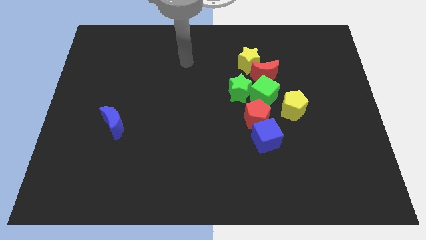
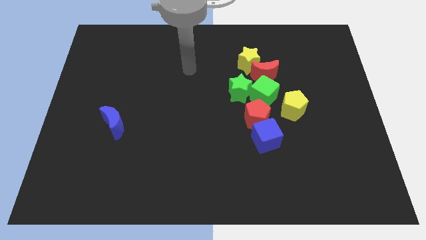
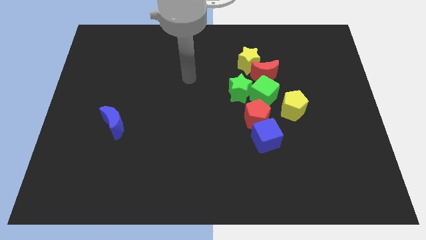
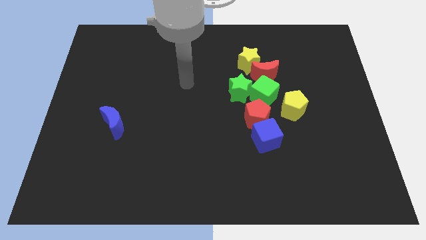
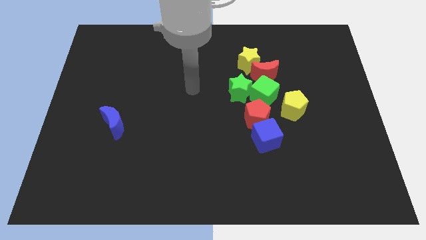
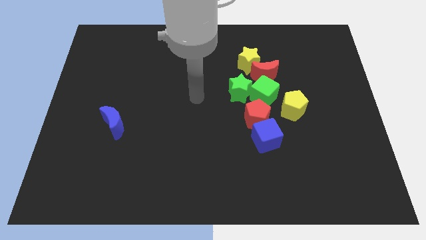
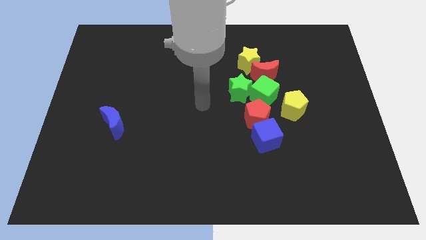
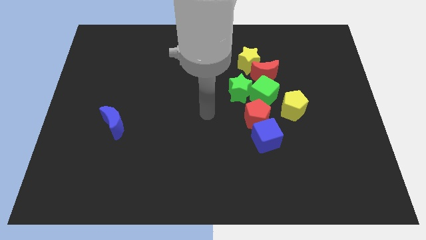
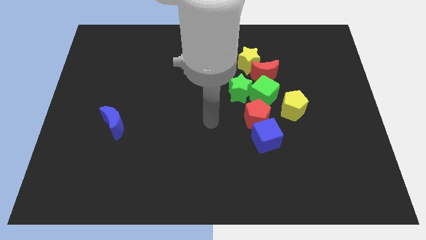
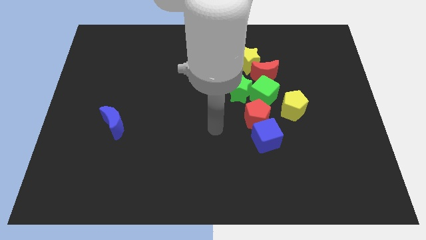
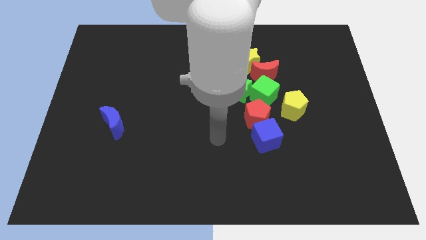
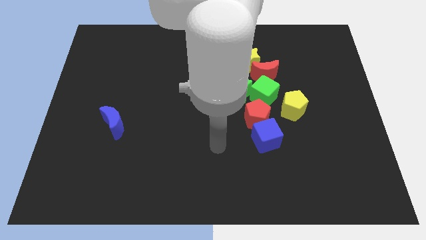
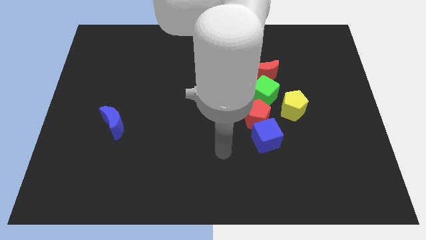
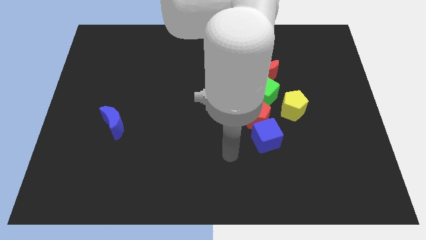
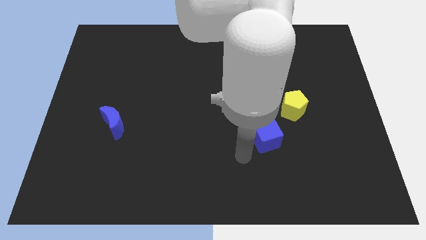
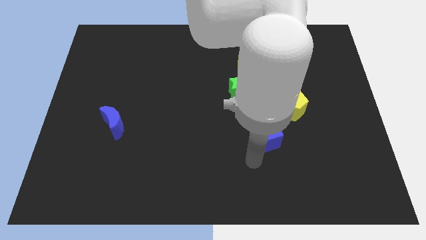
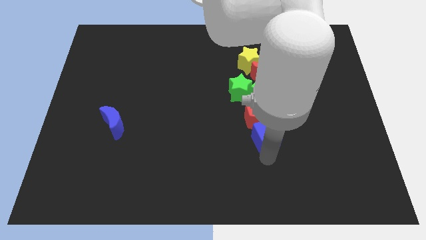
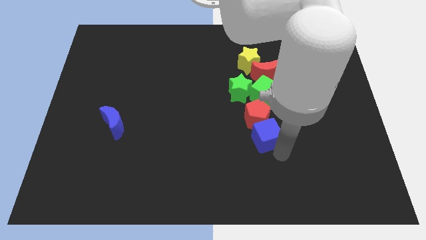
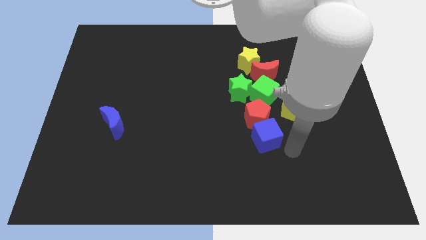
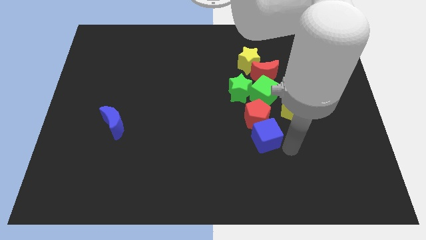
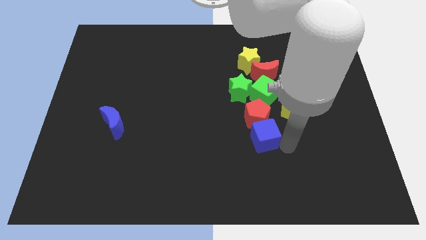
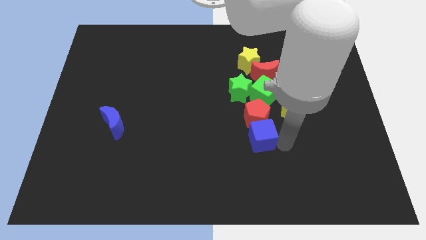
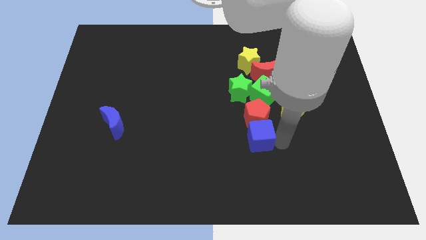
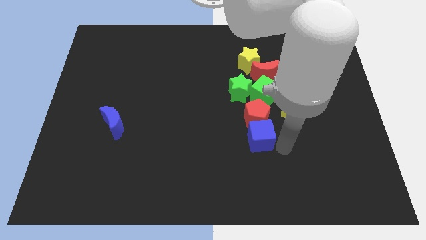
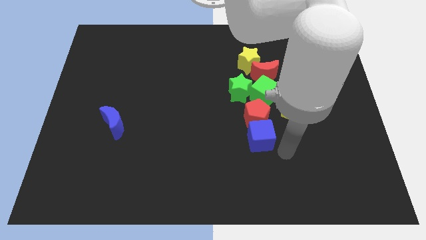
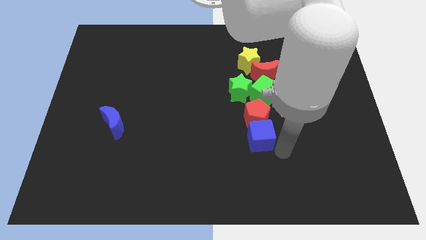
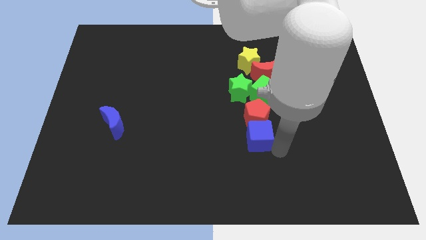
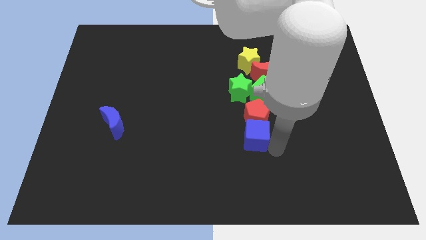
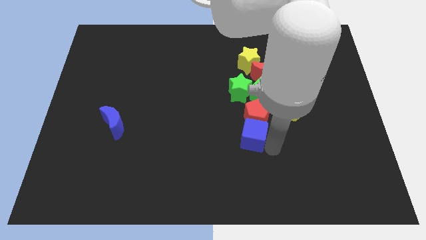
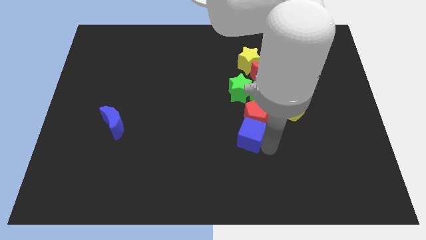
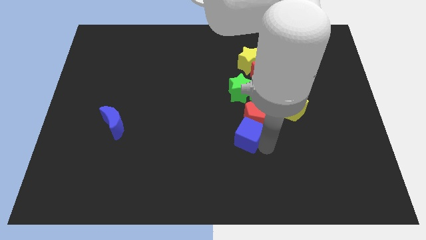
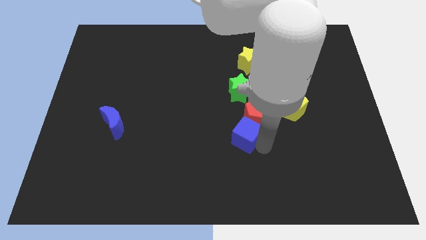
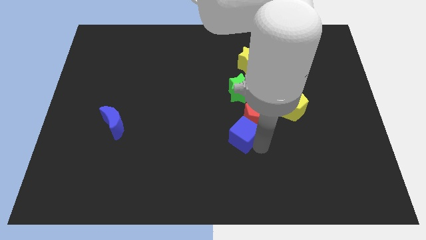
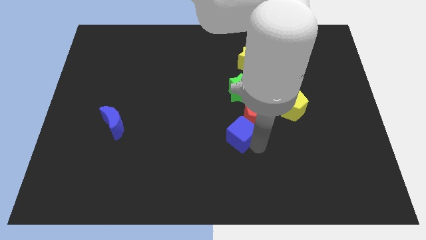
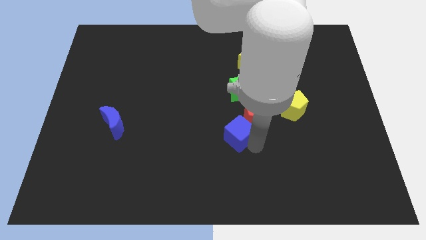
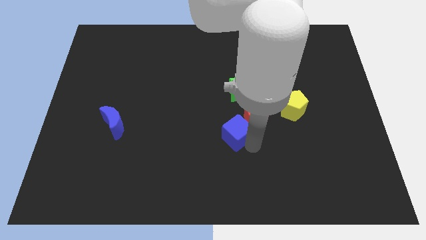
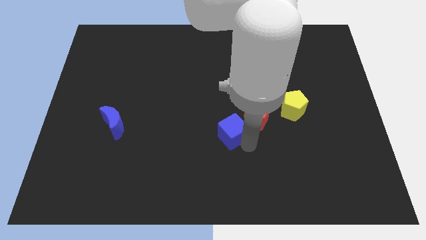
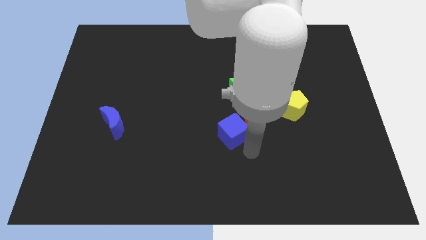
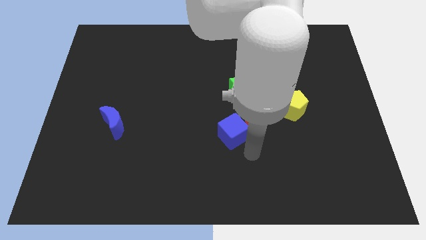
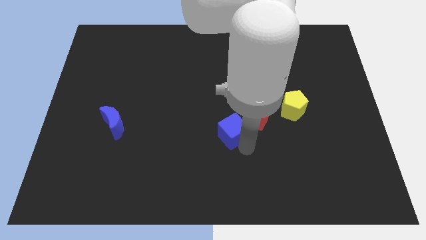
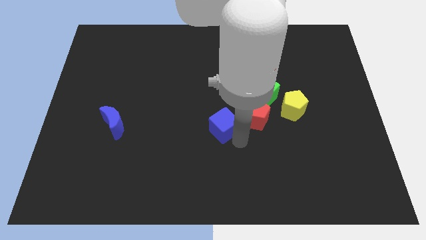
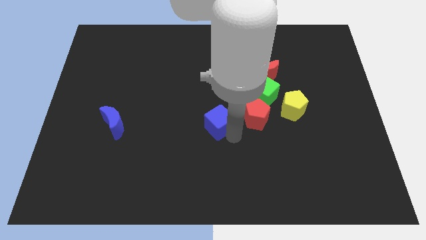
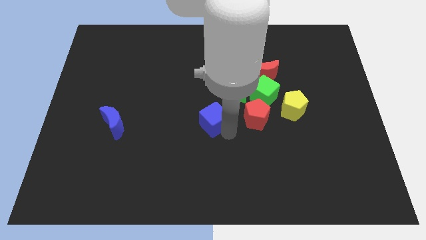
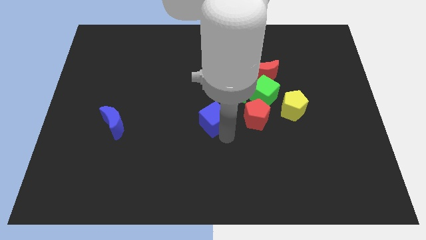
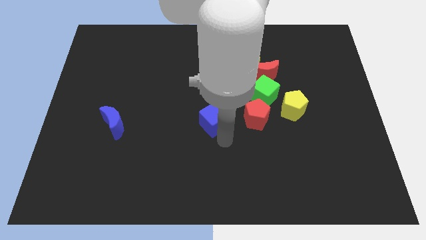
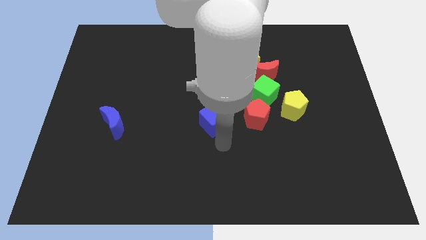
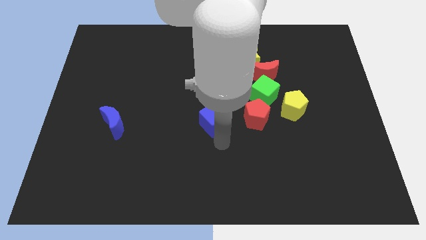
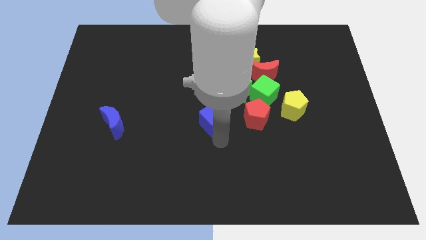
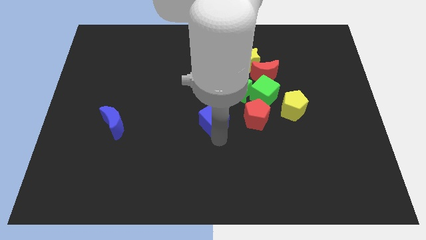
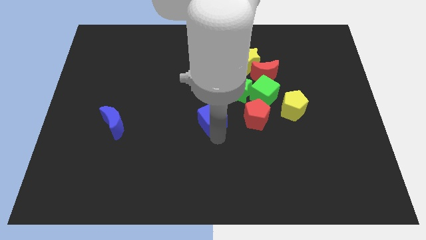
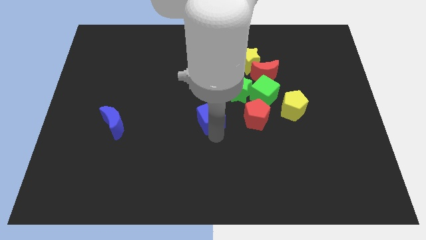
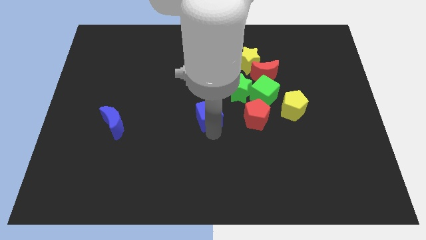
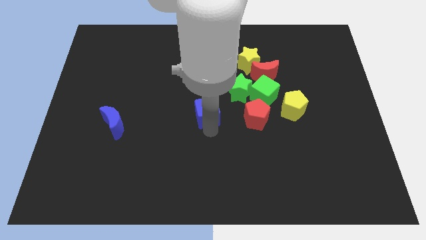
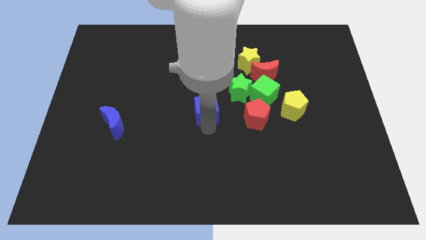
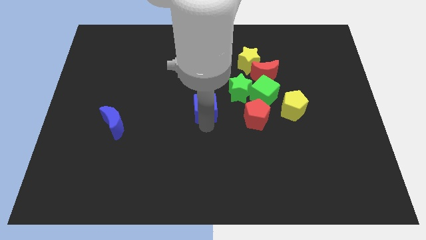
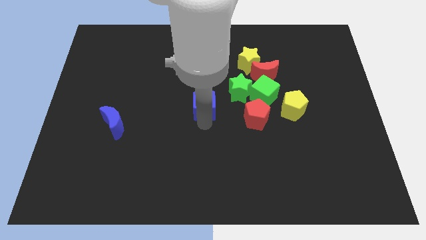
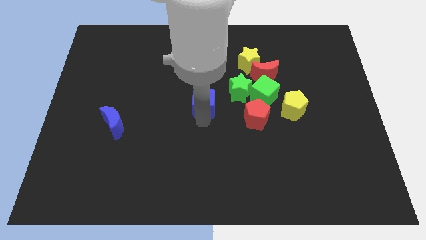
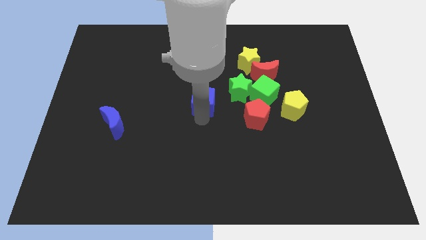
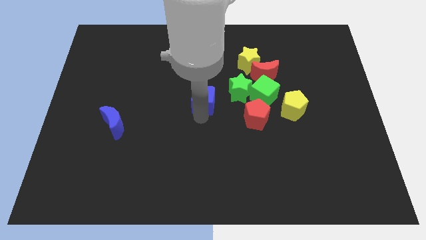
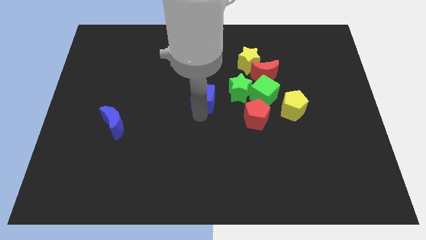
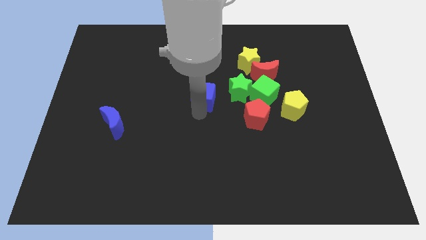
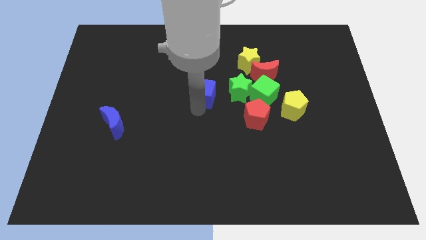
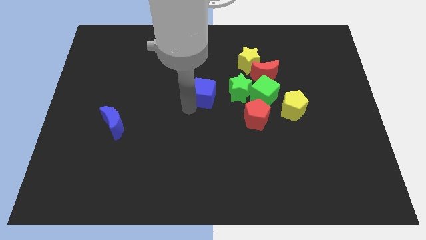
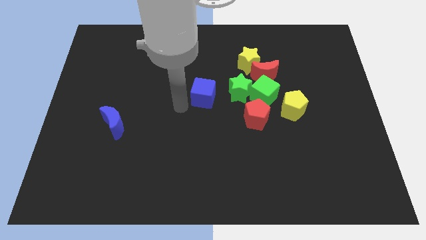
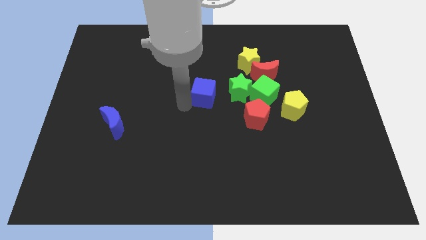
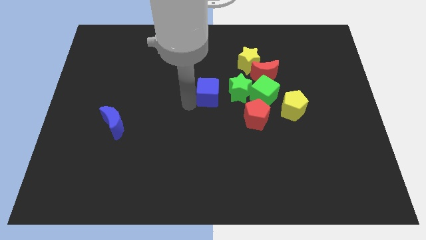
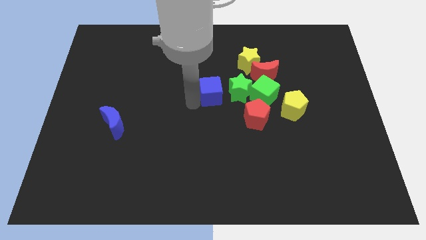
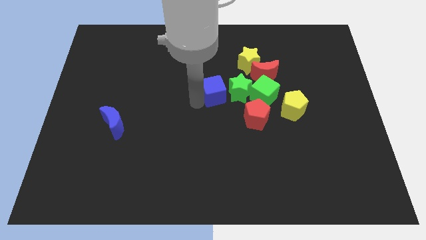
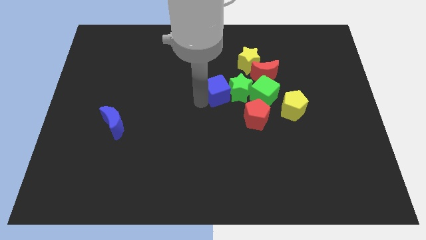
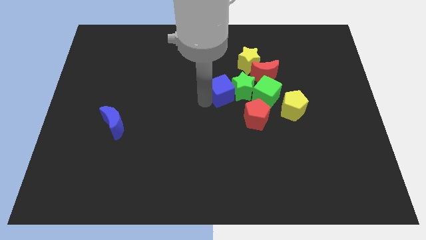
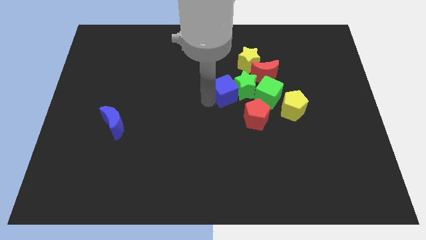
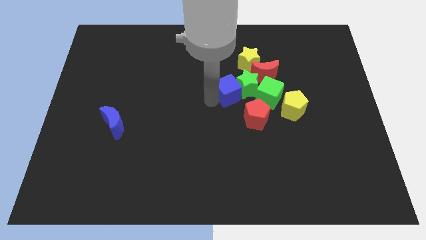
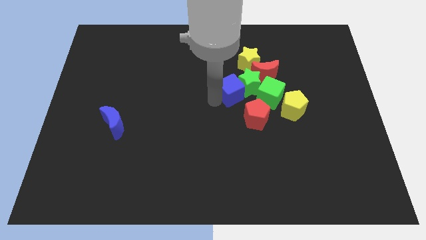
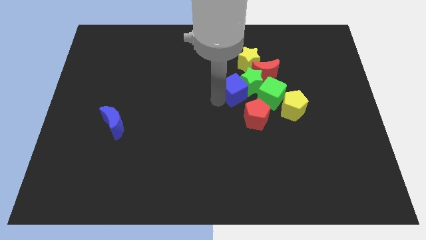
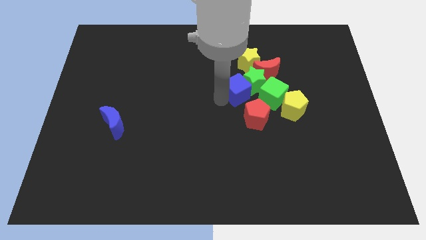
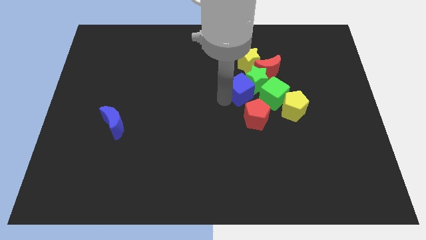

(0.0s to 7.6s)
push the blue cube to the top left of the green cube

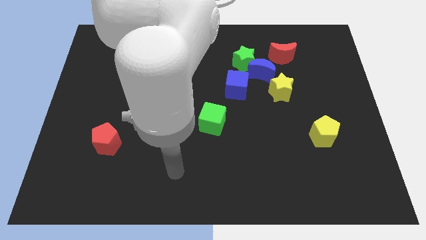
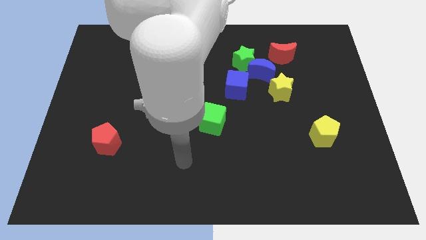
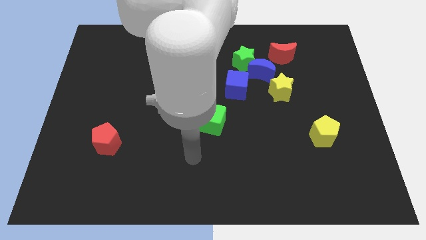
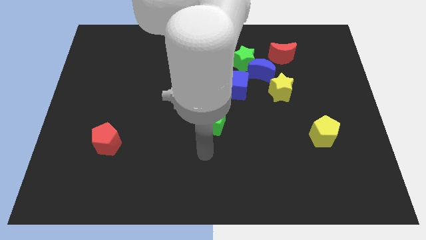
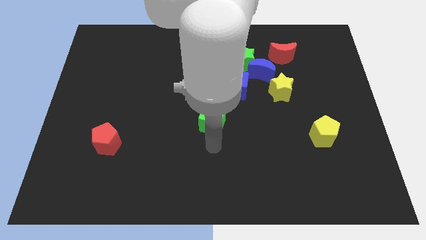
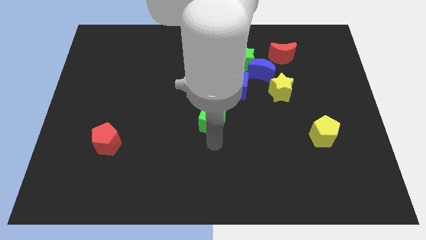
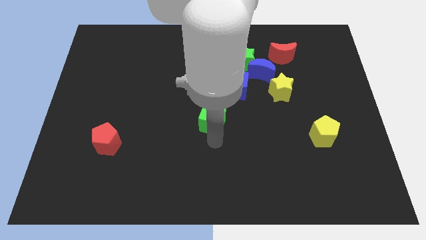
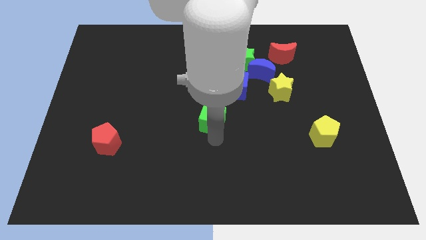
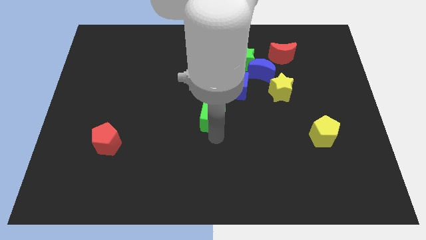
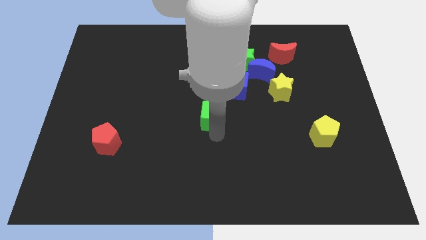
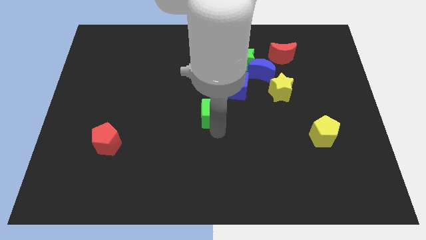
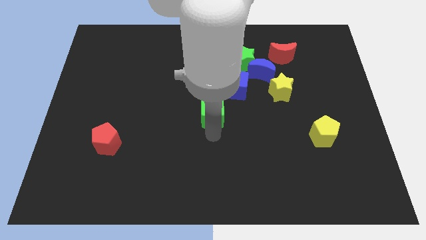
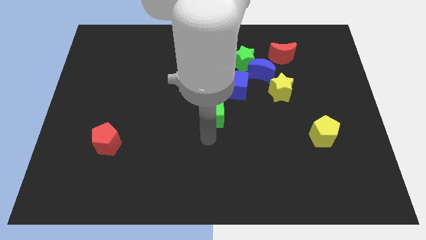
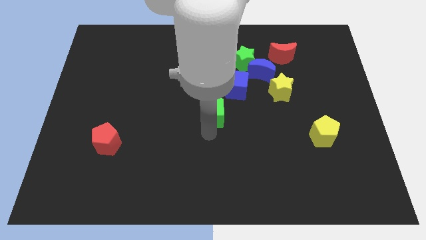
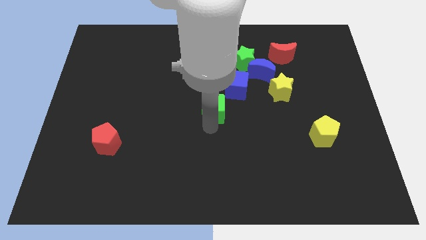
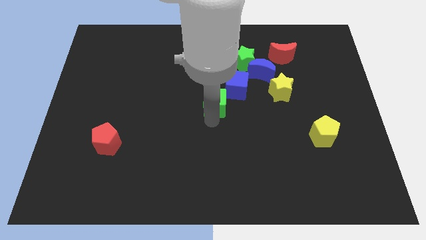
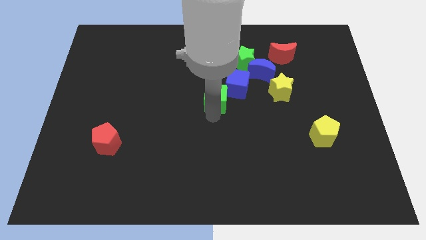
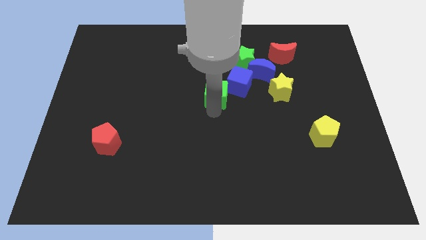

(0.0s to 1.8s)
push the green cube to the left of the yellow star
